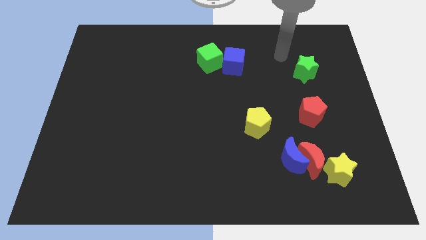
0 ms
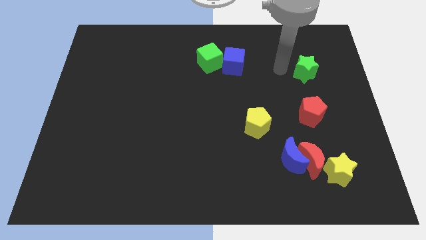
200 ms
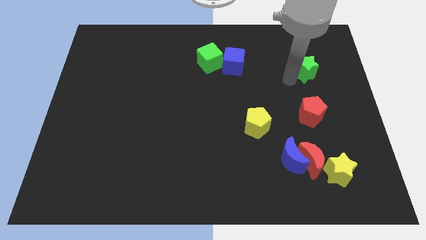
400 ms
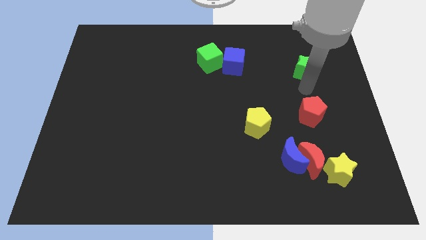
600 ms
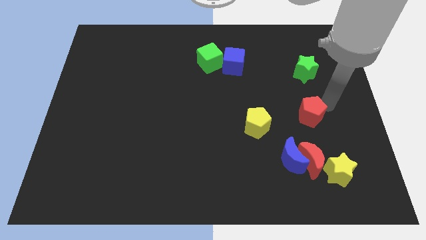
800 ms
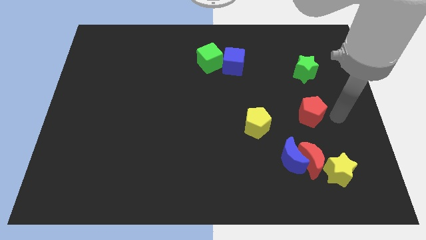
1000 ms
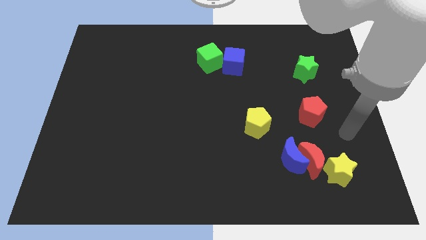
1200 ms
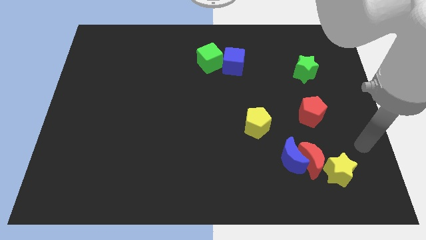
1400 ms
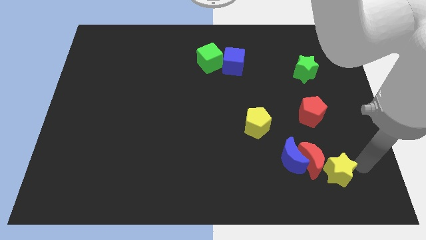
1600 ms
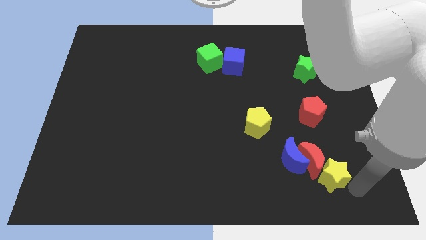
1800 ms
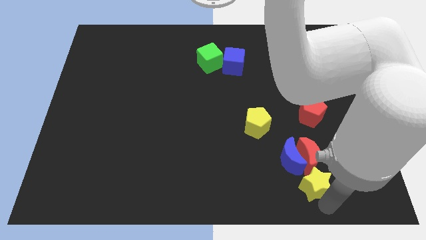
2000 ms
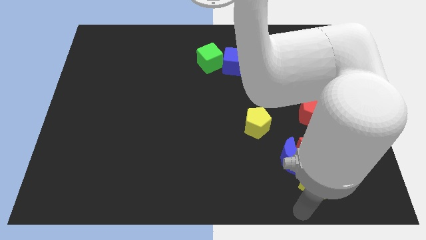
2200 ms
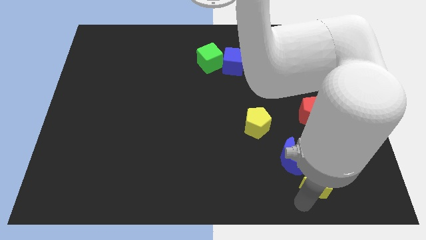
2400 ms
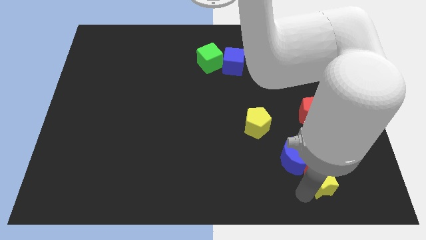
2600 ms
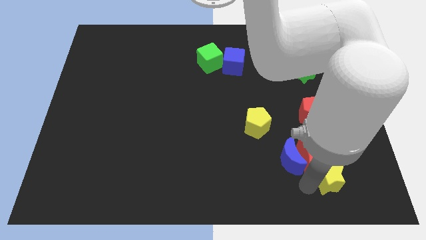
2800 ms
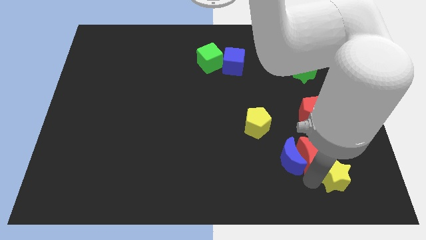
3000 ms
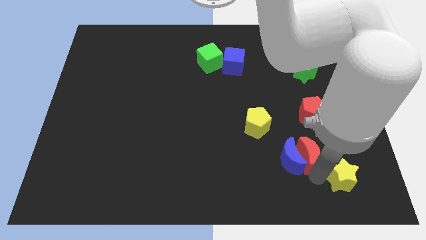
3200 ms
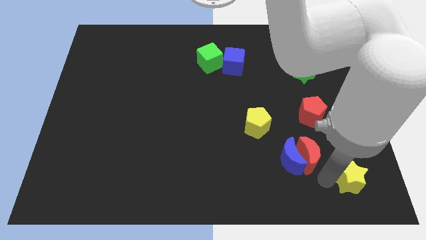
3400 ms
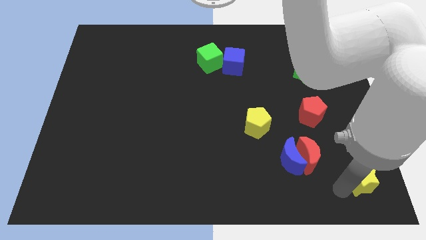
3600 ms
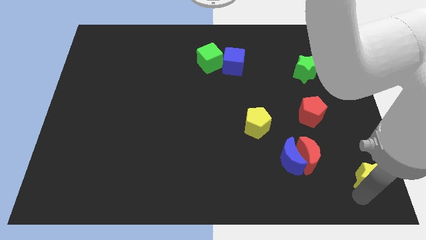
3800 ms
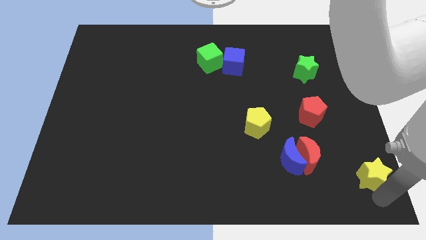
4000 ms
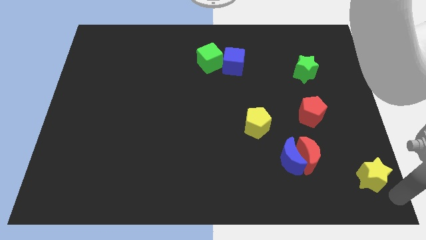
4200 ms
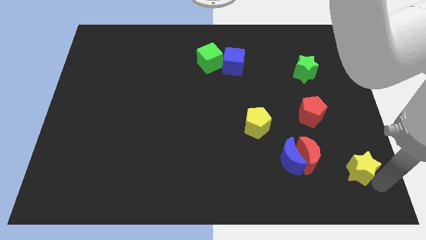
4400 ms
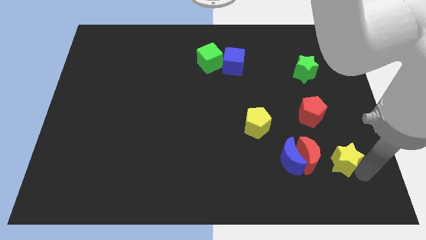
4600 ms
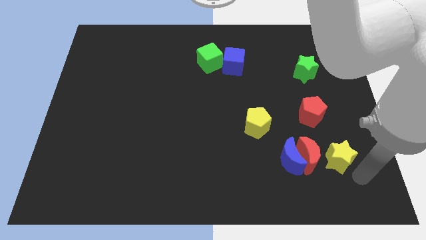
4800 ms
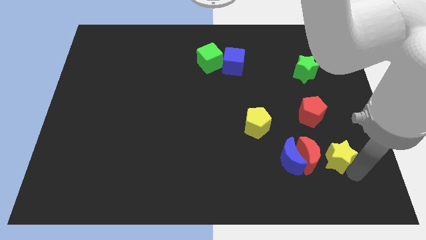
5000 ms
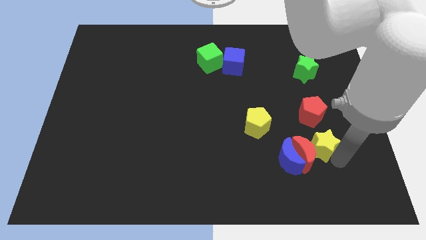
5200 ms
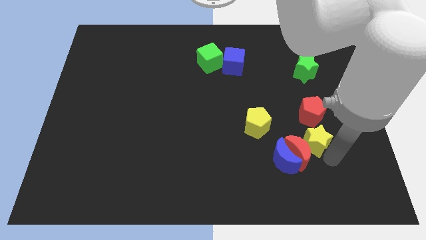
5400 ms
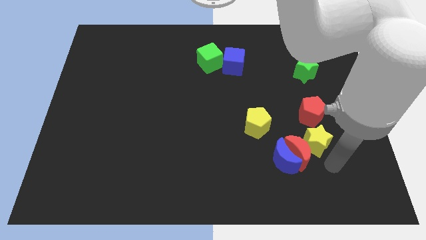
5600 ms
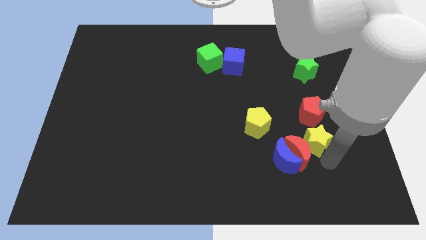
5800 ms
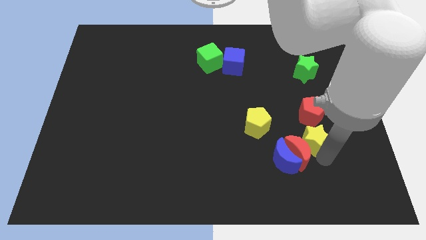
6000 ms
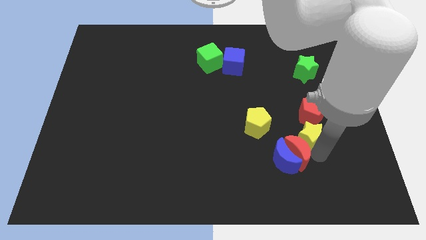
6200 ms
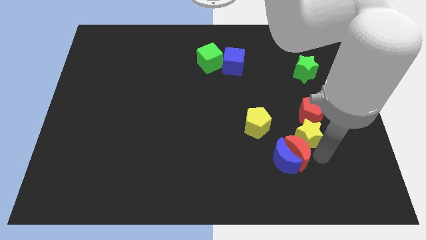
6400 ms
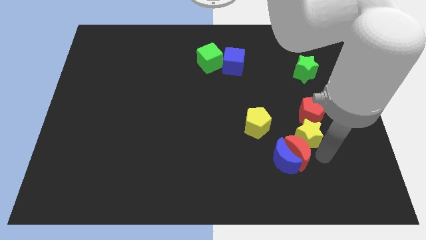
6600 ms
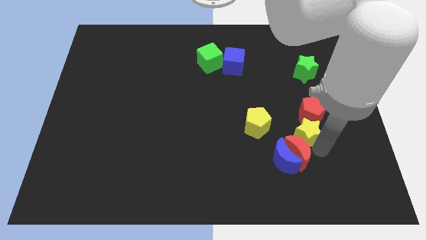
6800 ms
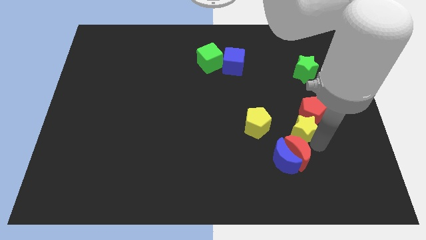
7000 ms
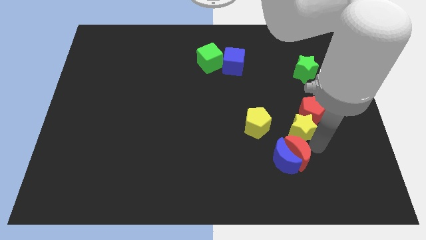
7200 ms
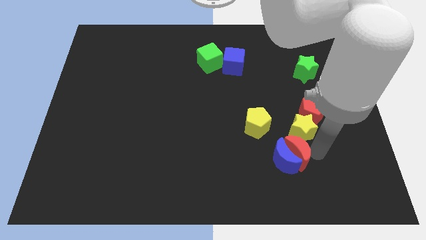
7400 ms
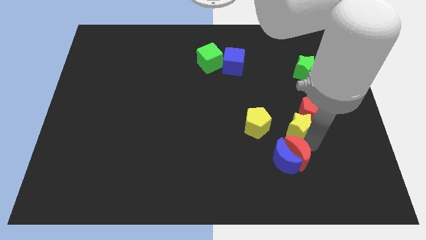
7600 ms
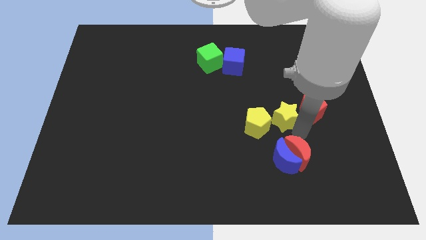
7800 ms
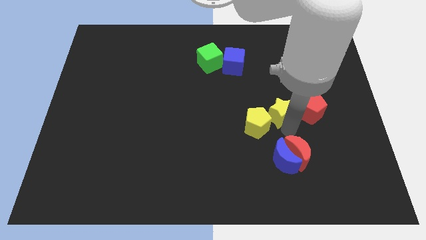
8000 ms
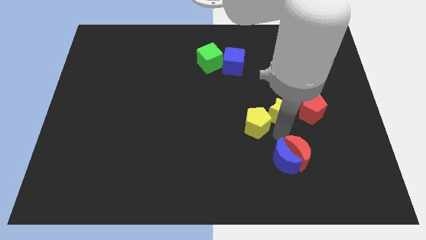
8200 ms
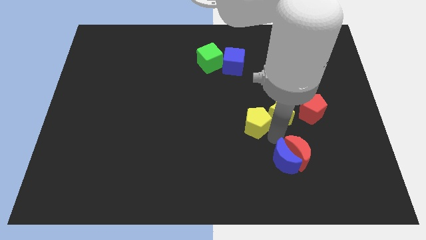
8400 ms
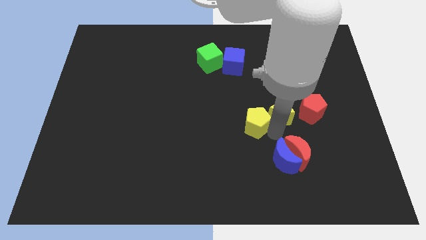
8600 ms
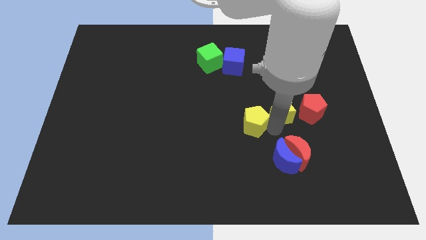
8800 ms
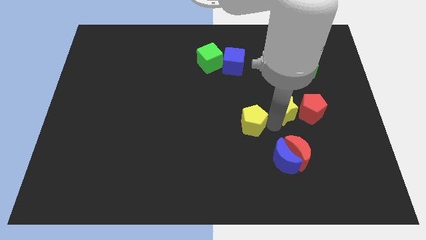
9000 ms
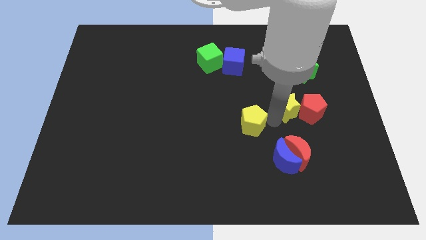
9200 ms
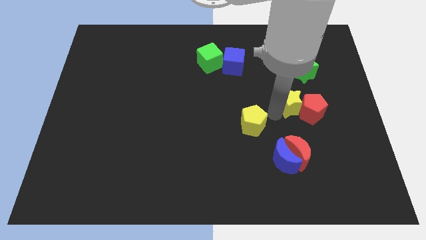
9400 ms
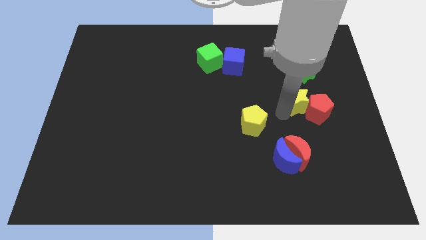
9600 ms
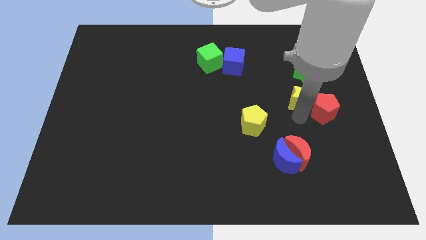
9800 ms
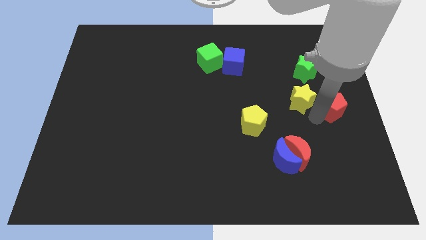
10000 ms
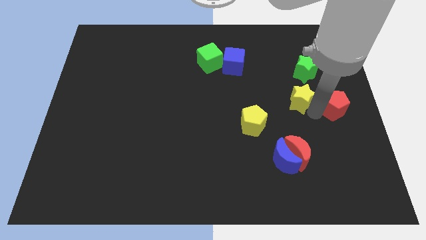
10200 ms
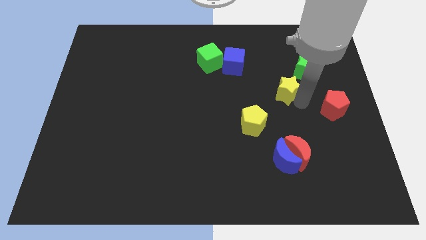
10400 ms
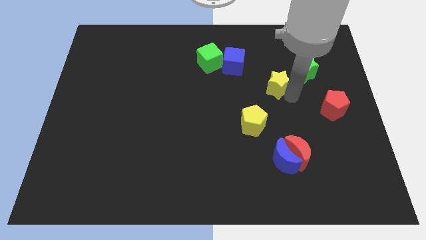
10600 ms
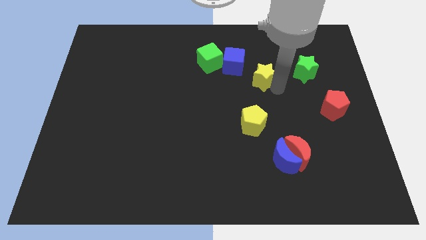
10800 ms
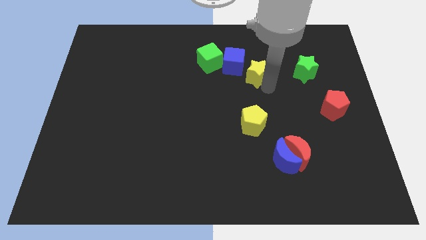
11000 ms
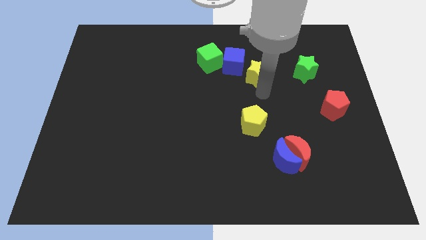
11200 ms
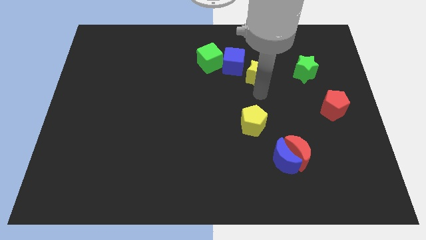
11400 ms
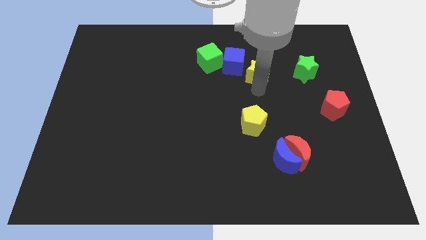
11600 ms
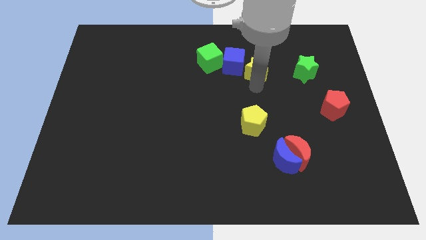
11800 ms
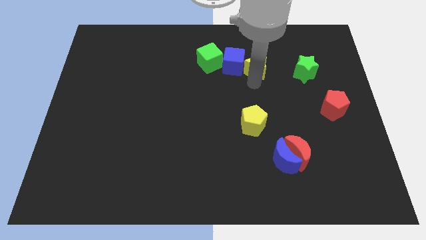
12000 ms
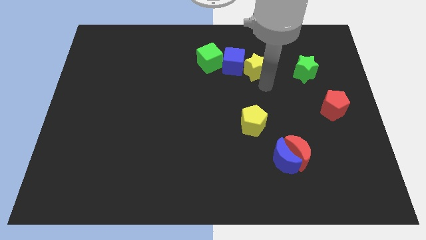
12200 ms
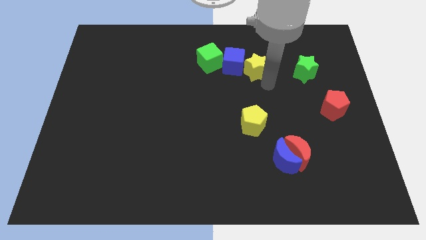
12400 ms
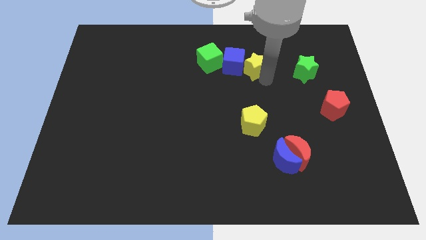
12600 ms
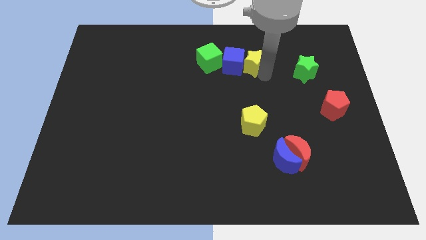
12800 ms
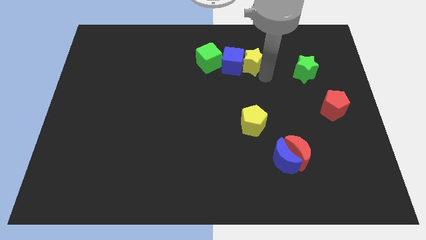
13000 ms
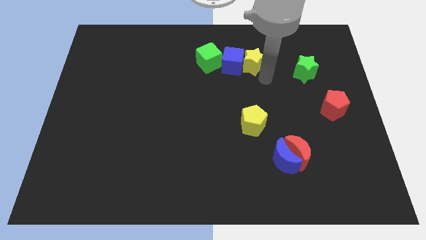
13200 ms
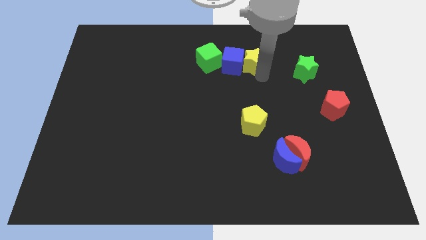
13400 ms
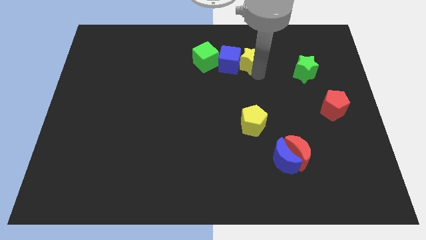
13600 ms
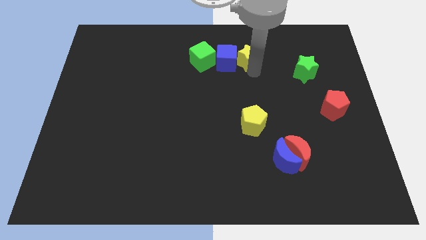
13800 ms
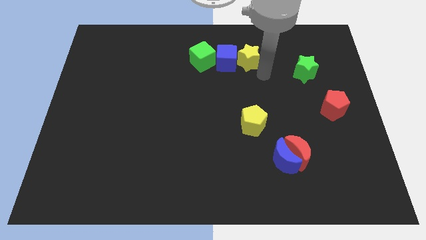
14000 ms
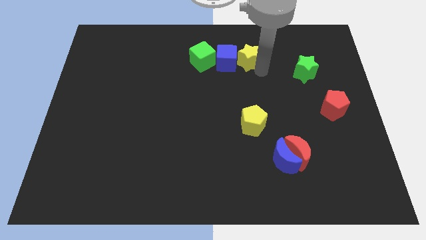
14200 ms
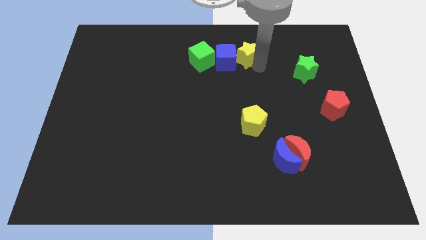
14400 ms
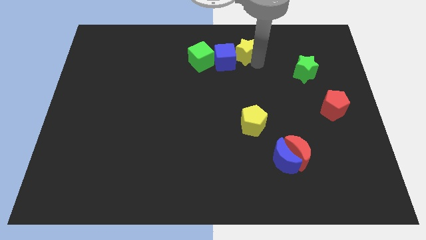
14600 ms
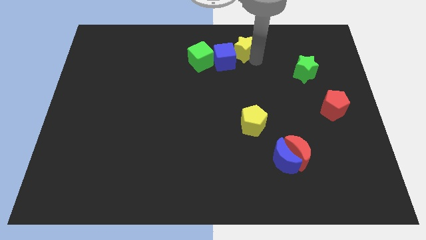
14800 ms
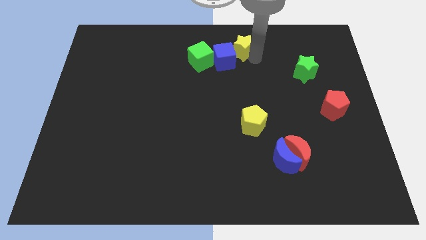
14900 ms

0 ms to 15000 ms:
move the yellow star to the top side
